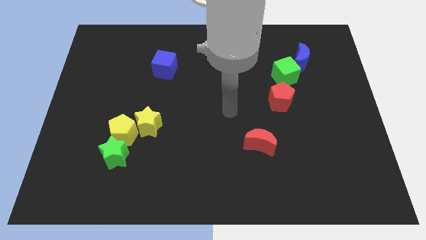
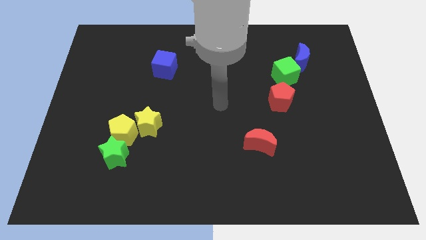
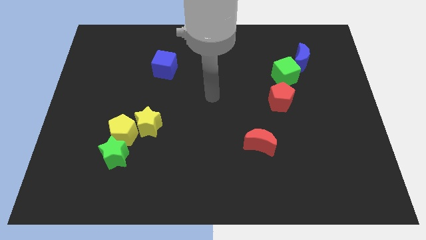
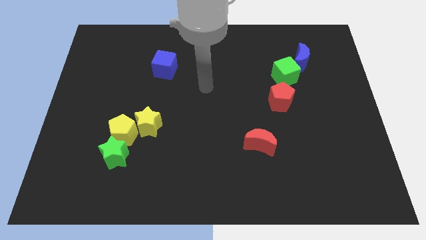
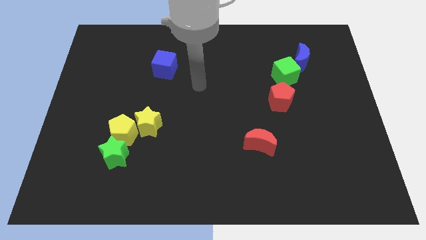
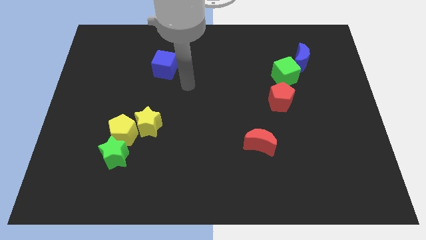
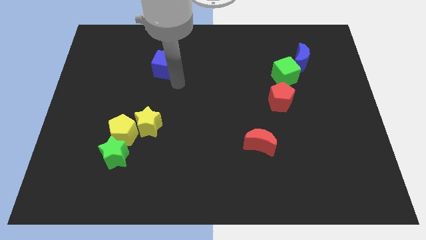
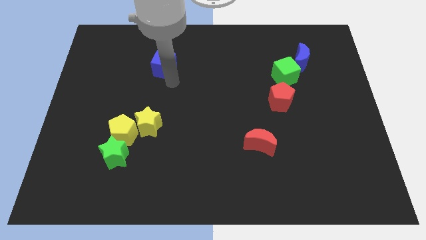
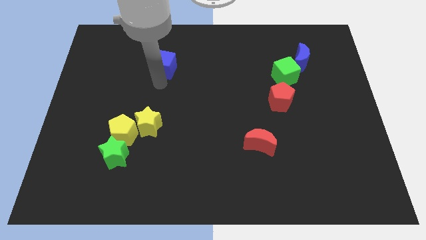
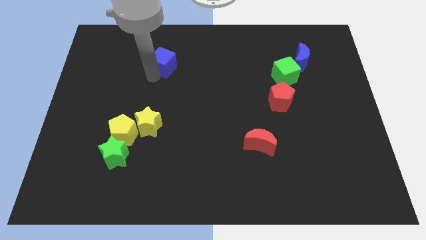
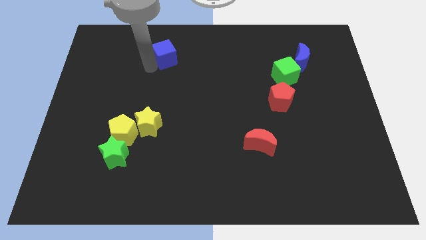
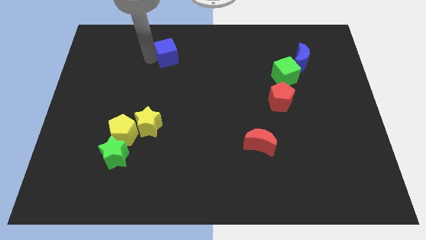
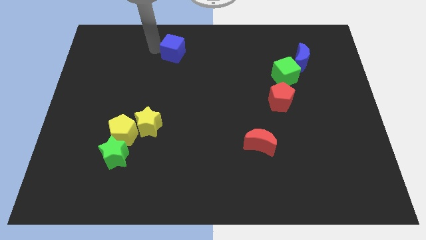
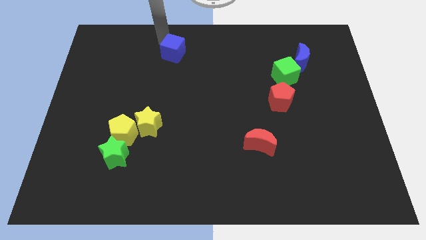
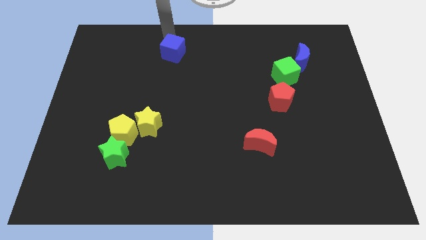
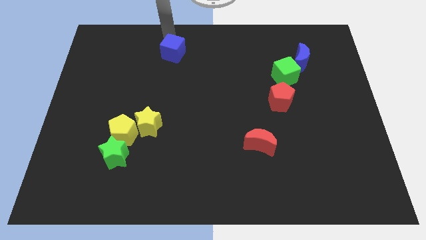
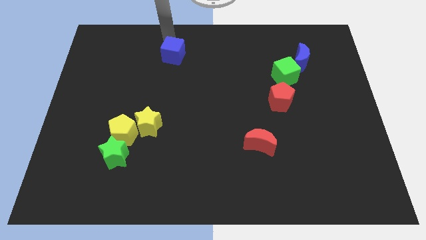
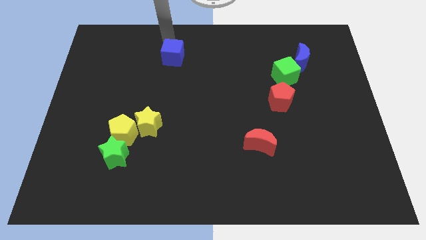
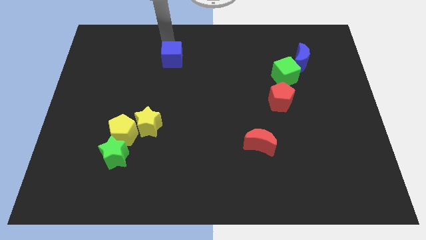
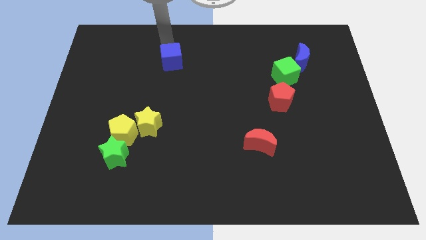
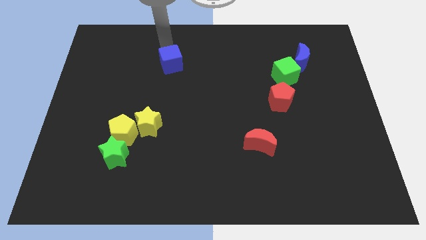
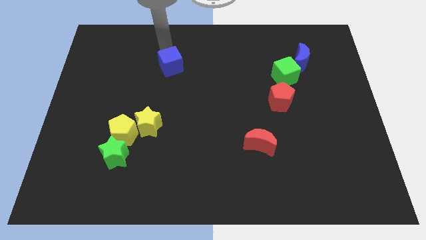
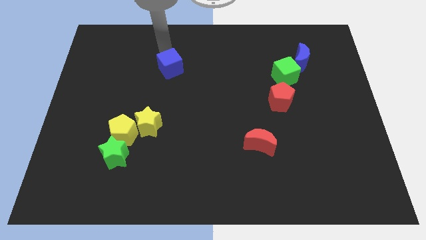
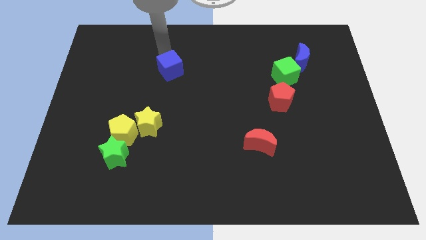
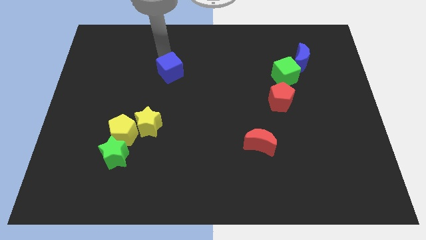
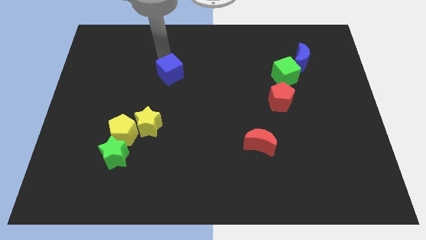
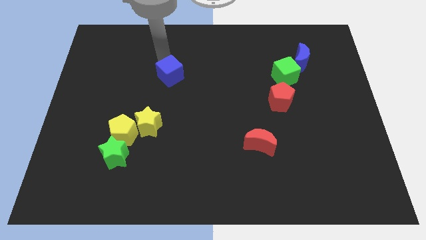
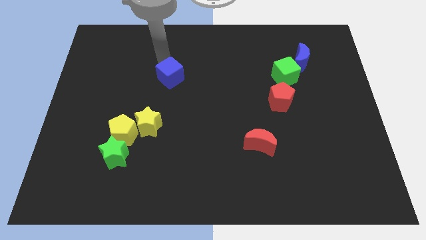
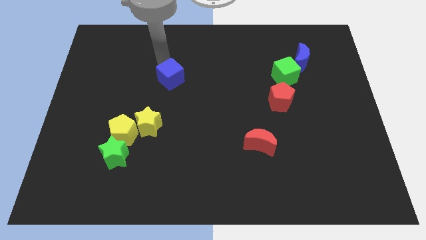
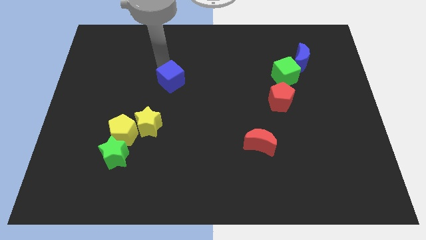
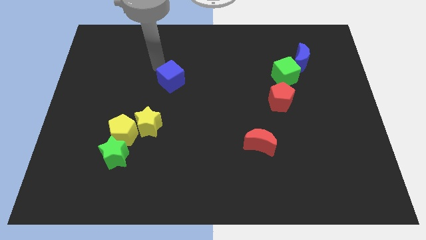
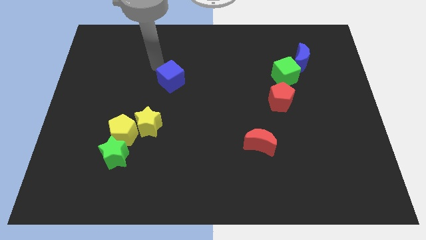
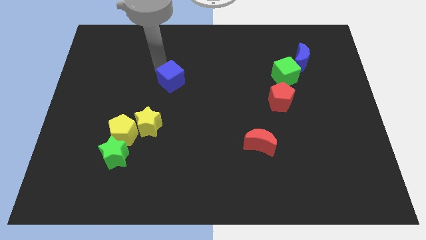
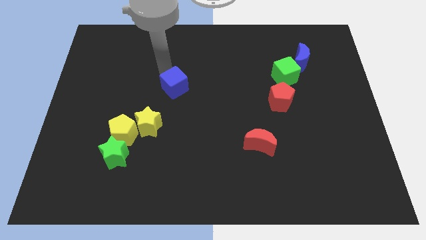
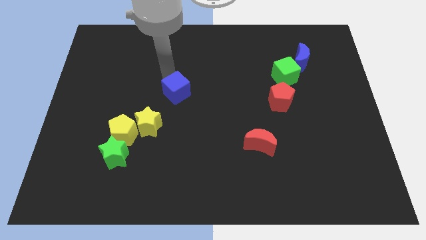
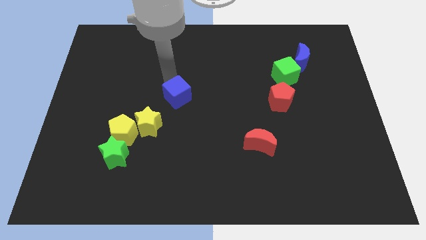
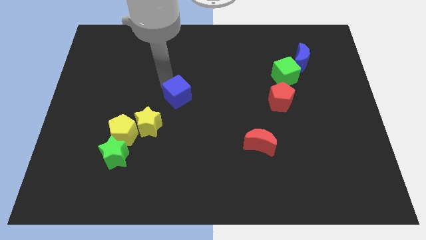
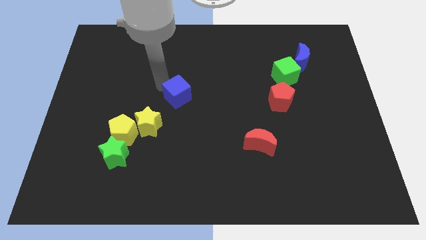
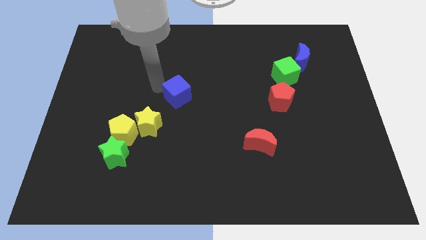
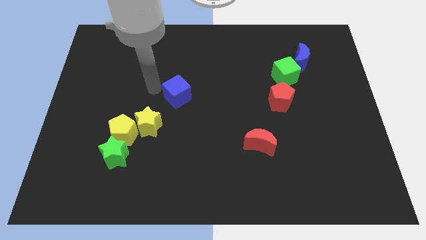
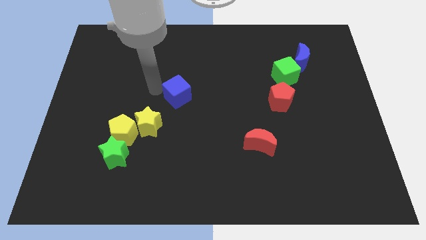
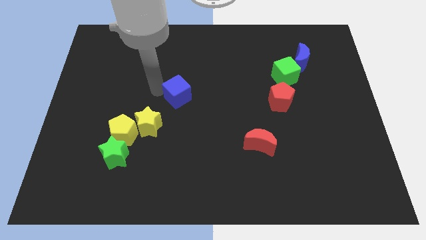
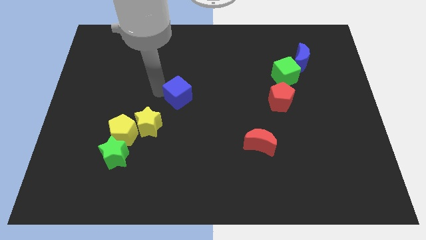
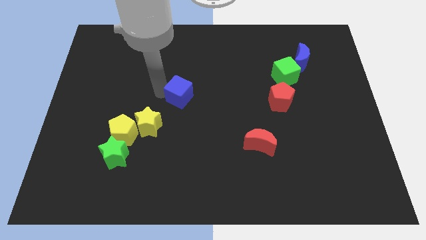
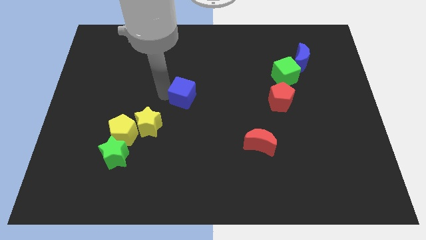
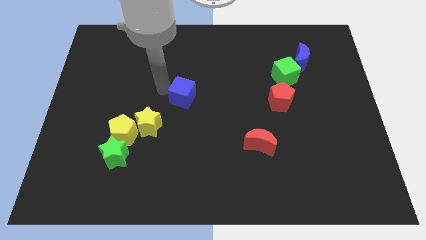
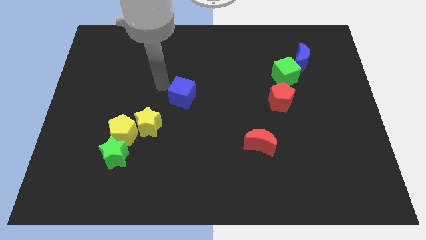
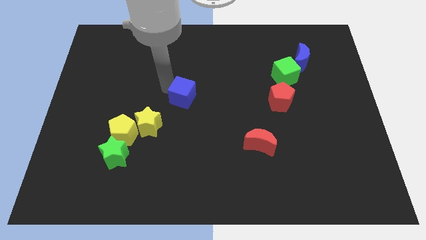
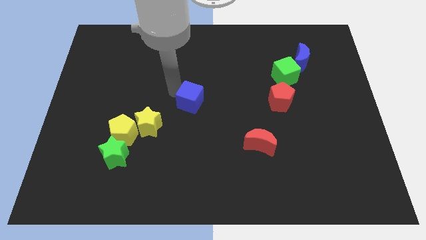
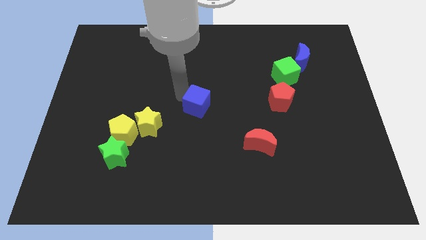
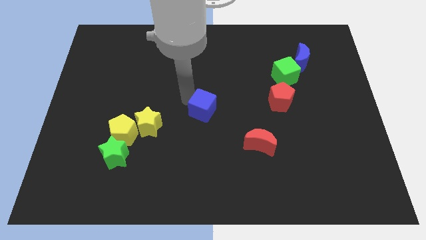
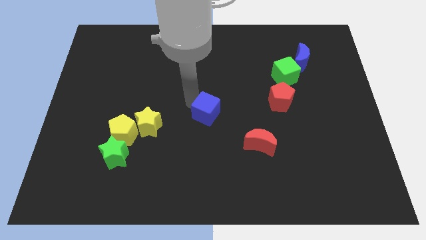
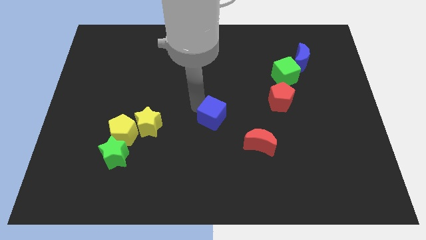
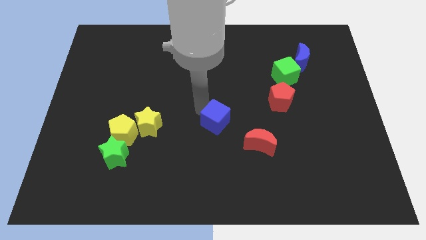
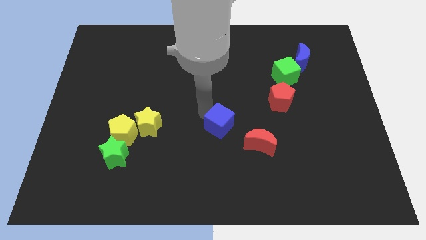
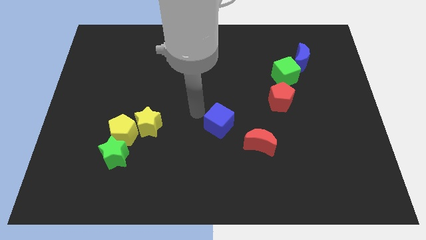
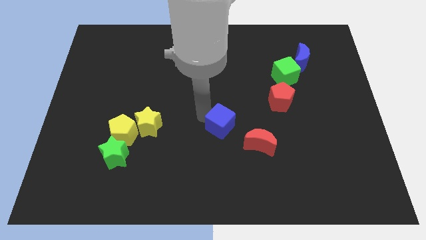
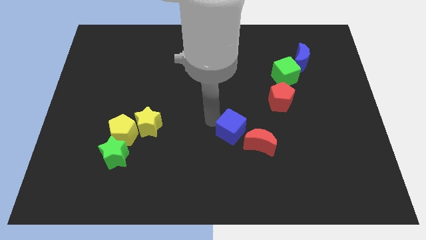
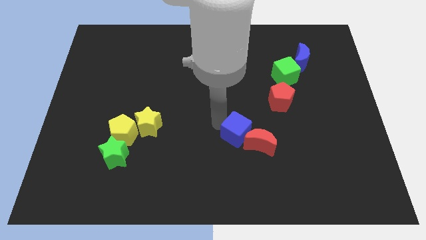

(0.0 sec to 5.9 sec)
put the blue cube next to the red moon

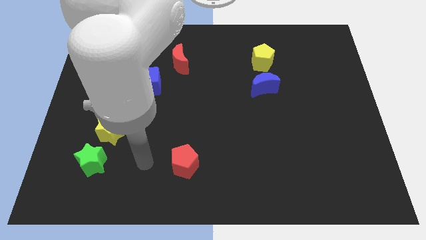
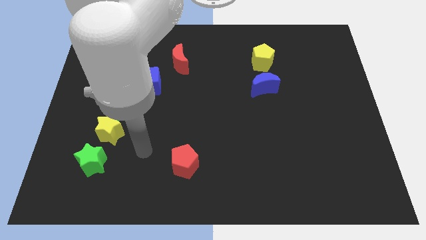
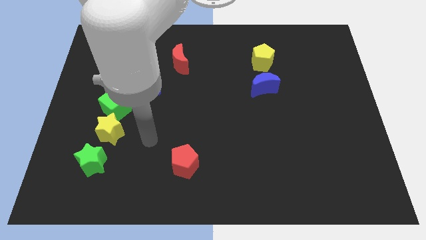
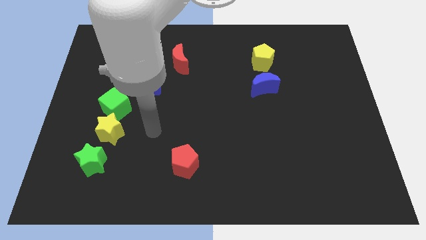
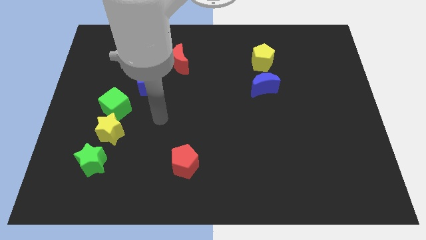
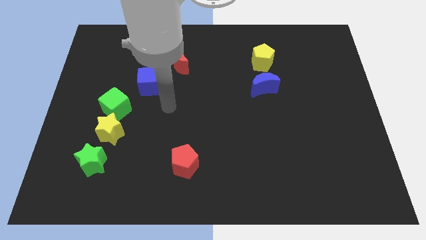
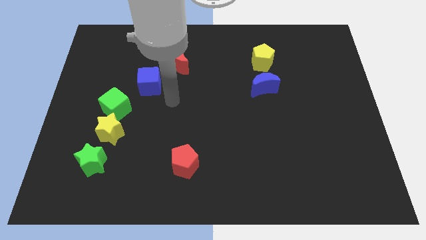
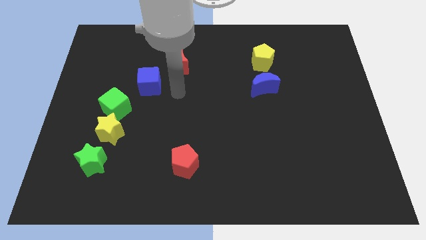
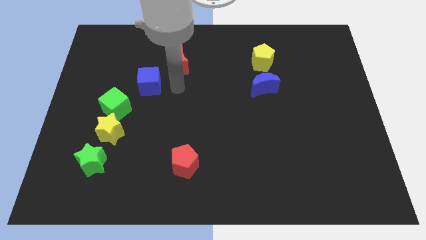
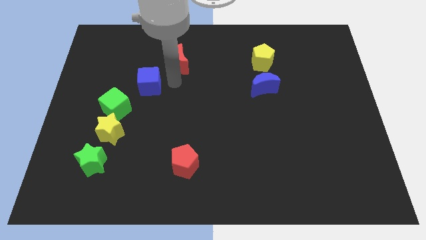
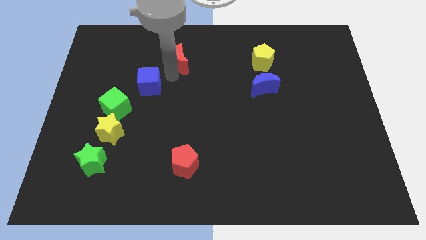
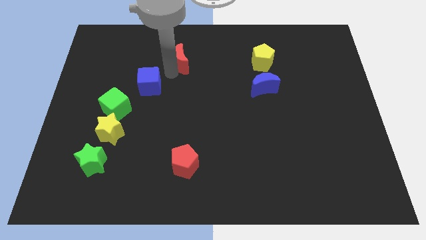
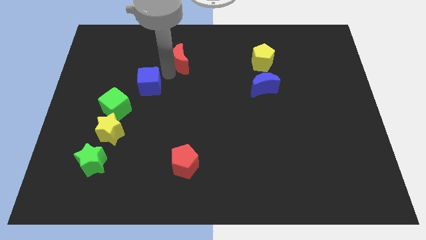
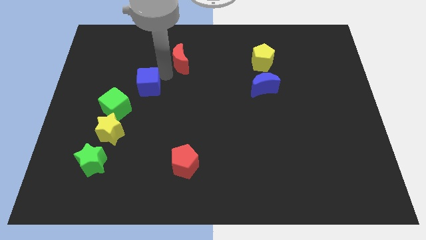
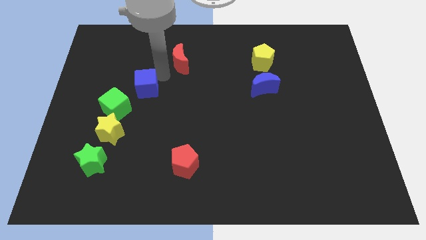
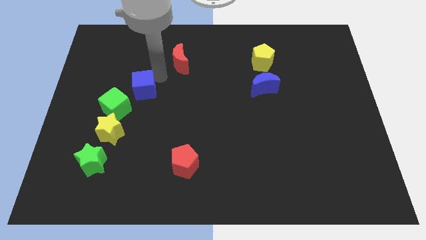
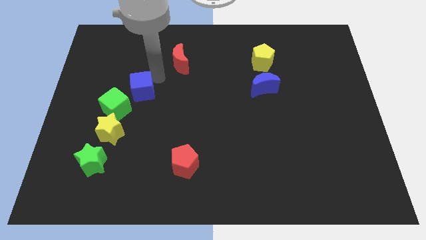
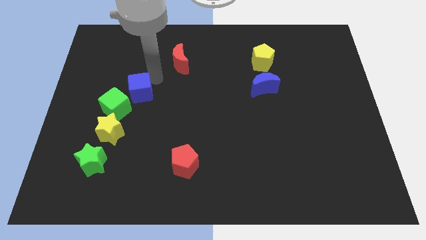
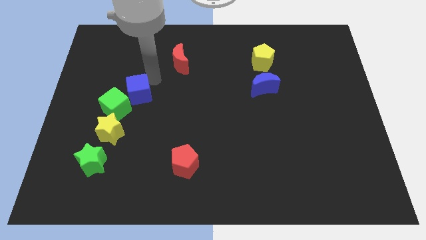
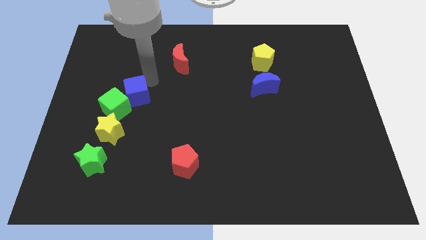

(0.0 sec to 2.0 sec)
slide the blue cube to the green cube
